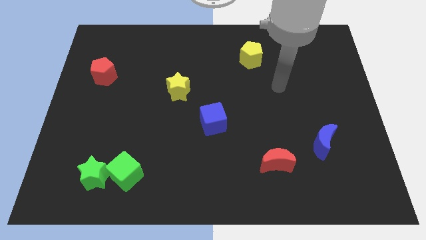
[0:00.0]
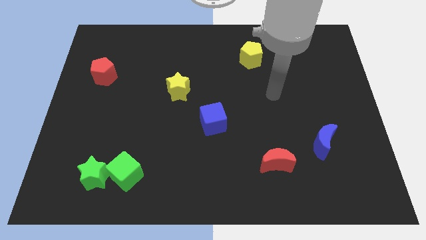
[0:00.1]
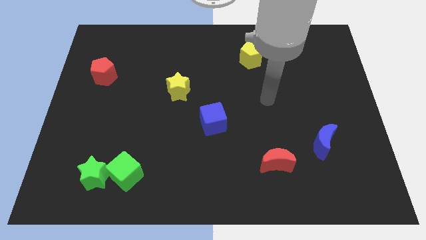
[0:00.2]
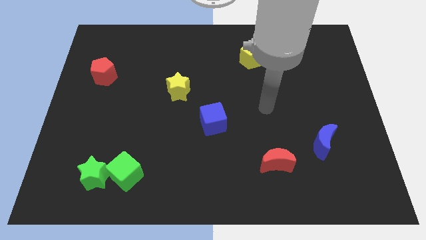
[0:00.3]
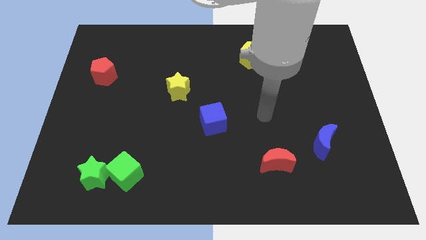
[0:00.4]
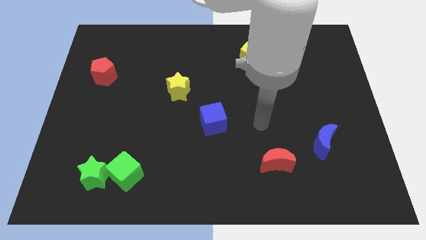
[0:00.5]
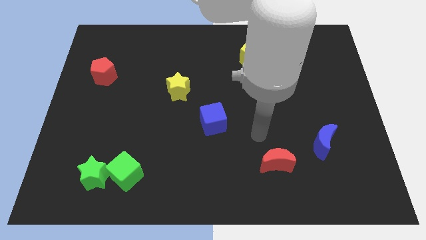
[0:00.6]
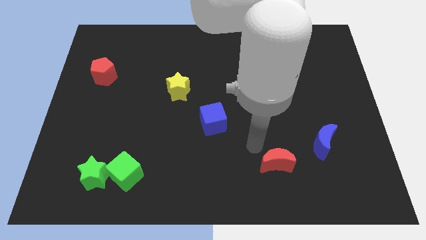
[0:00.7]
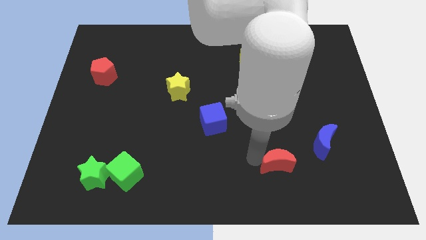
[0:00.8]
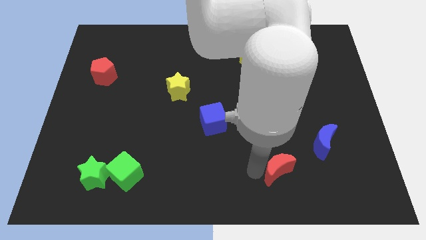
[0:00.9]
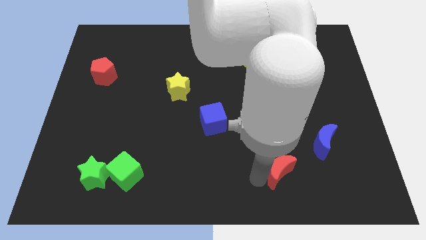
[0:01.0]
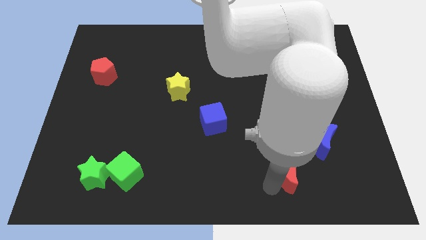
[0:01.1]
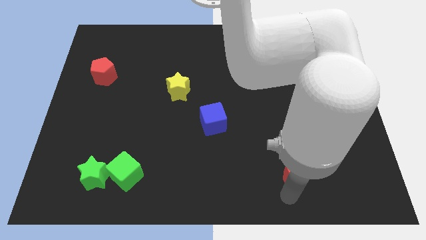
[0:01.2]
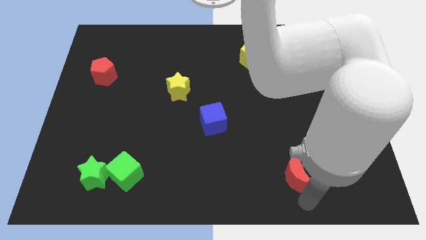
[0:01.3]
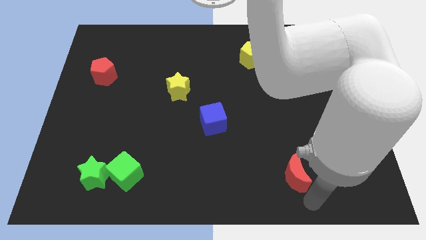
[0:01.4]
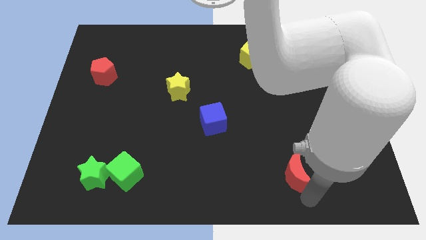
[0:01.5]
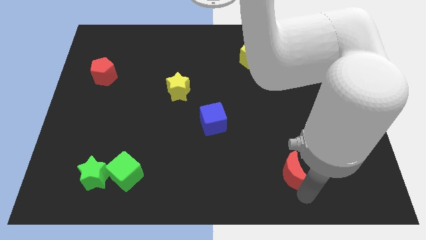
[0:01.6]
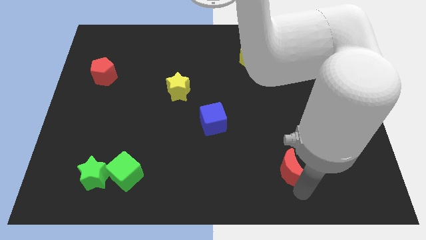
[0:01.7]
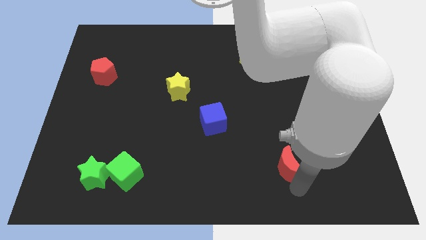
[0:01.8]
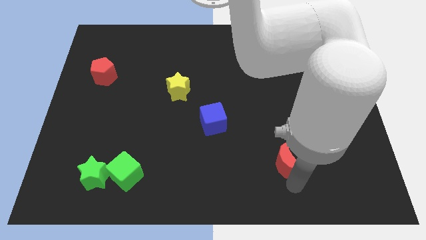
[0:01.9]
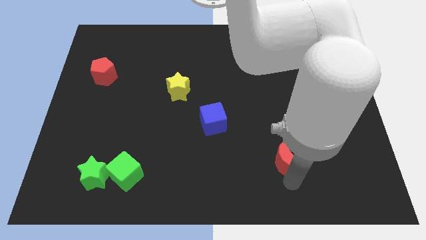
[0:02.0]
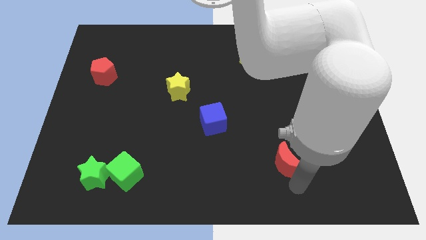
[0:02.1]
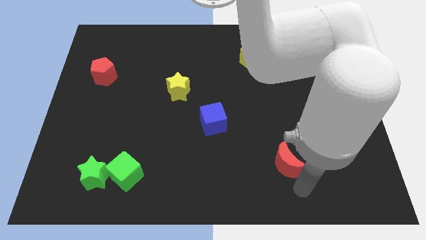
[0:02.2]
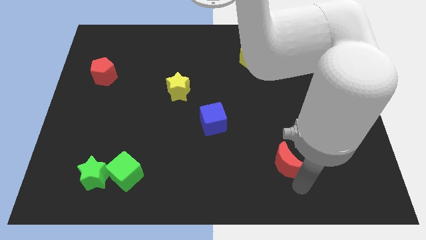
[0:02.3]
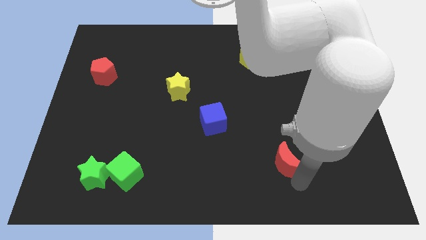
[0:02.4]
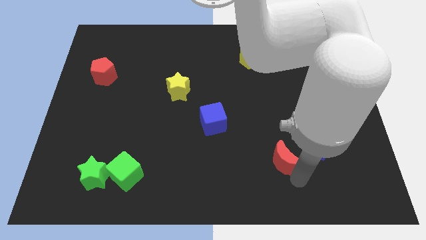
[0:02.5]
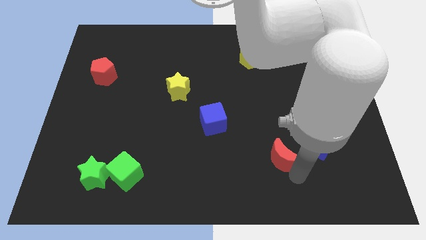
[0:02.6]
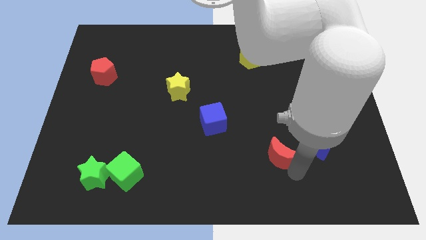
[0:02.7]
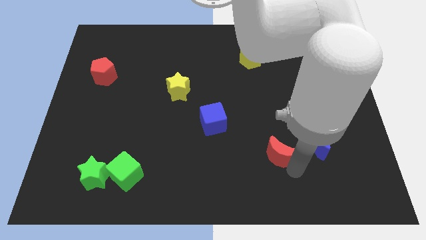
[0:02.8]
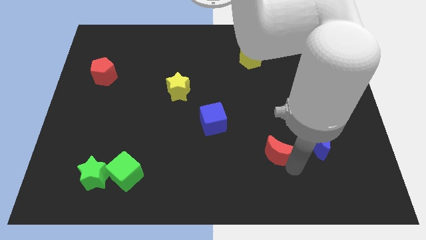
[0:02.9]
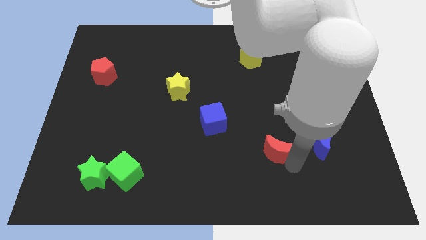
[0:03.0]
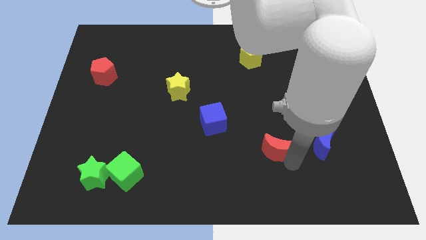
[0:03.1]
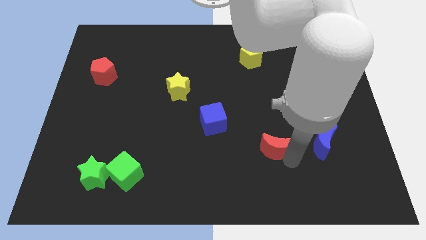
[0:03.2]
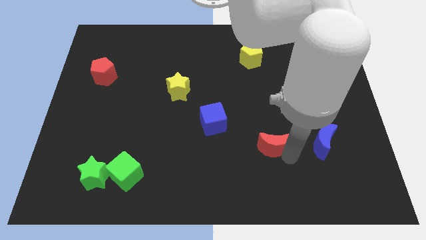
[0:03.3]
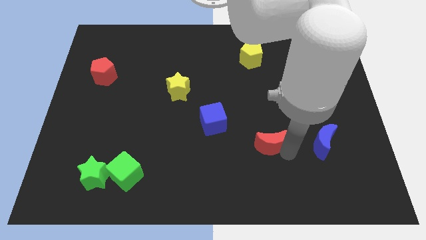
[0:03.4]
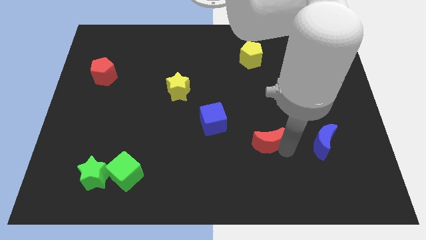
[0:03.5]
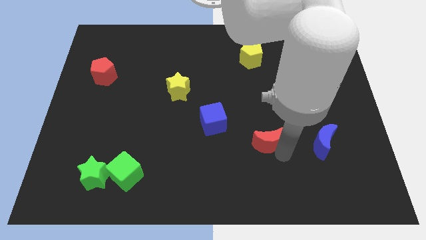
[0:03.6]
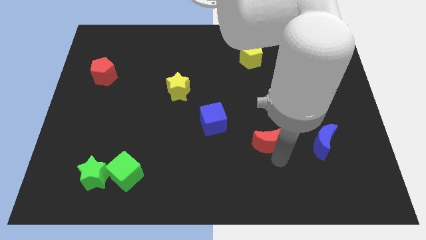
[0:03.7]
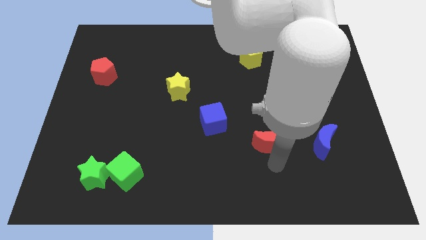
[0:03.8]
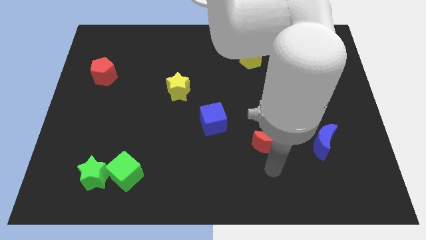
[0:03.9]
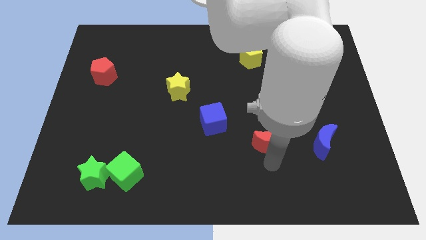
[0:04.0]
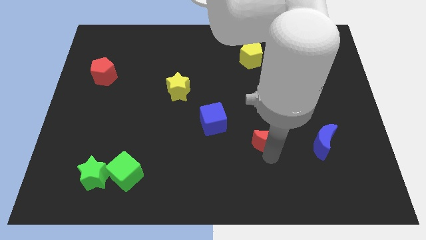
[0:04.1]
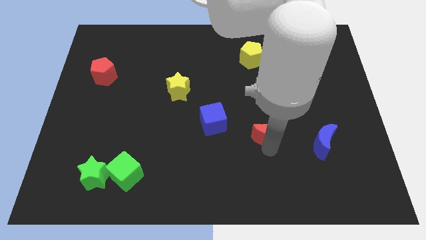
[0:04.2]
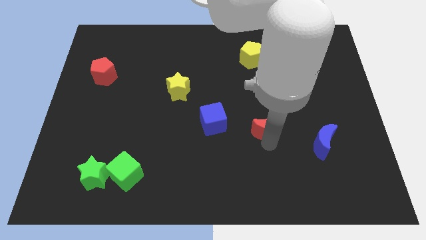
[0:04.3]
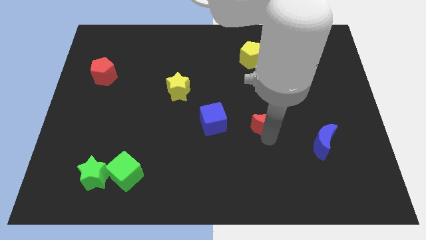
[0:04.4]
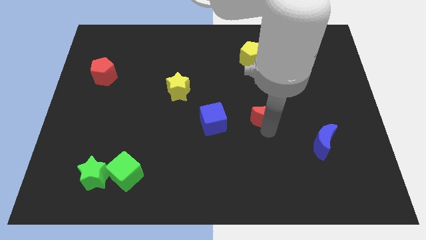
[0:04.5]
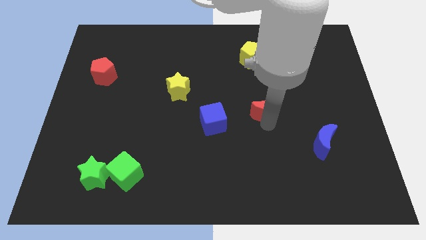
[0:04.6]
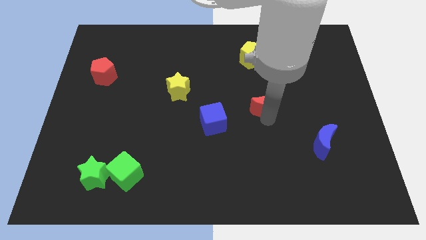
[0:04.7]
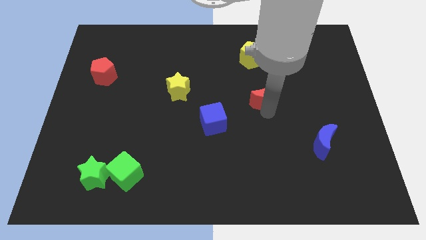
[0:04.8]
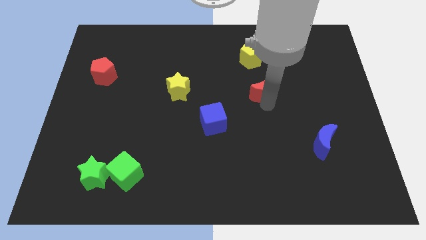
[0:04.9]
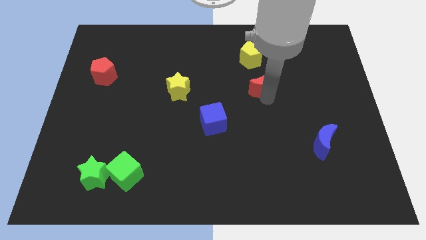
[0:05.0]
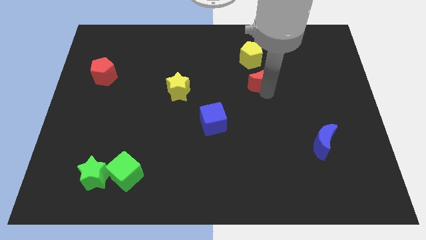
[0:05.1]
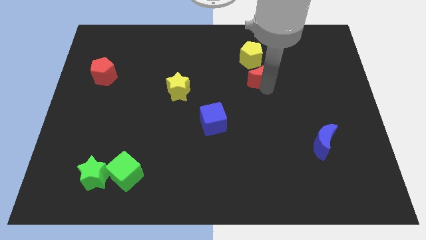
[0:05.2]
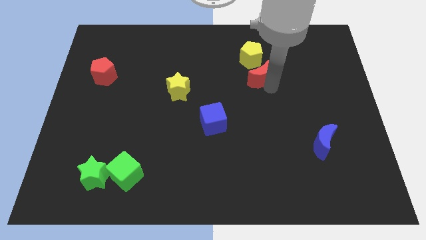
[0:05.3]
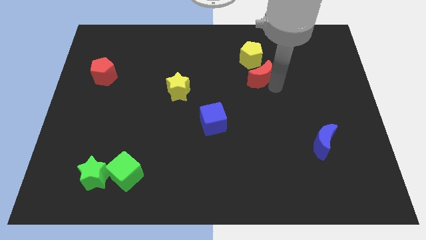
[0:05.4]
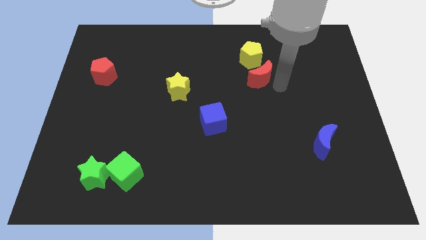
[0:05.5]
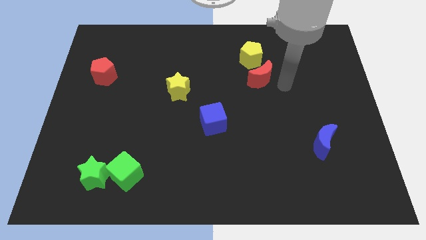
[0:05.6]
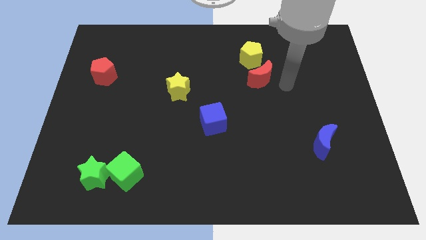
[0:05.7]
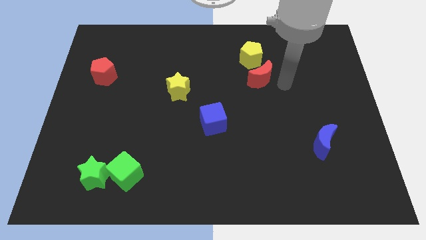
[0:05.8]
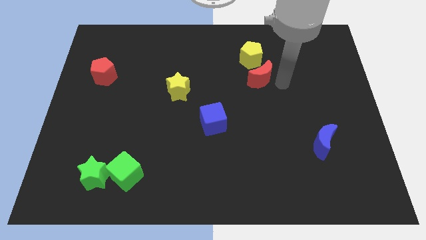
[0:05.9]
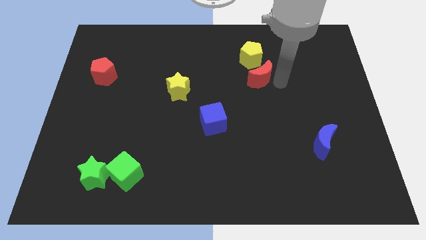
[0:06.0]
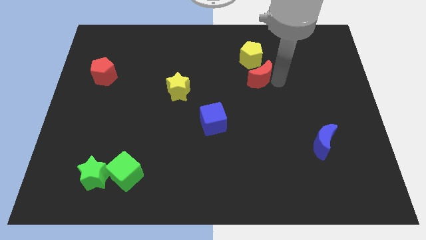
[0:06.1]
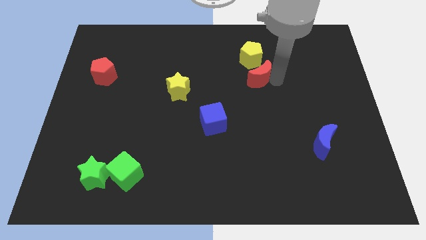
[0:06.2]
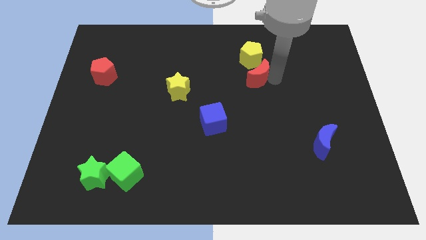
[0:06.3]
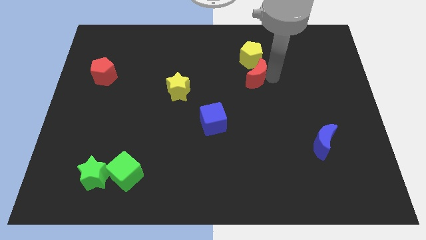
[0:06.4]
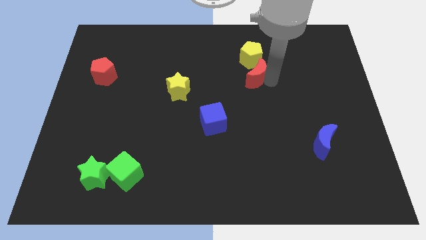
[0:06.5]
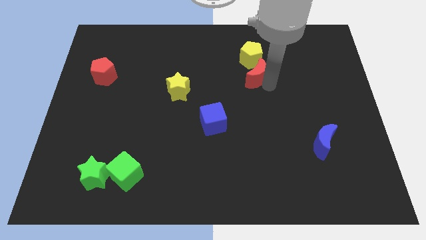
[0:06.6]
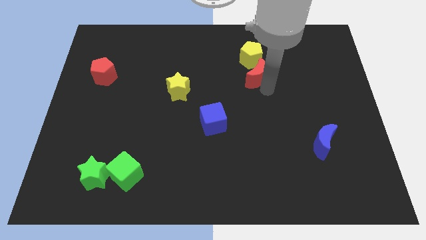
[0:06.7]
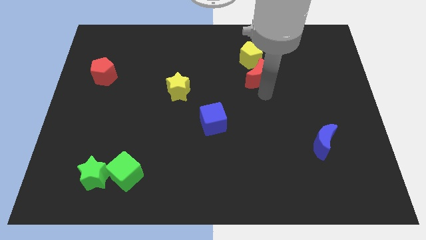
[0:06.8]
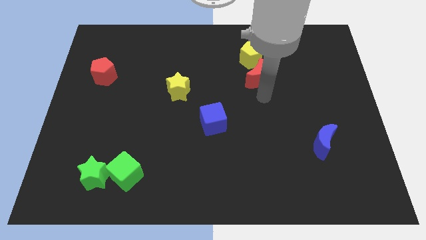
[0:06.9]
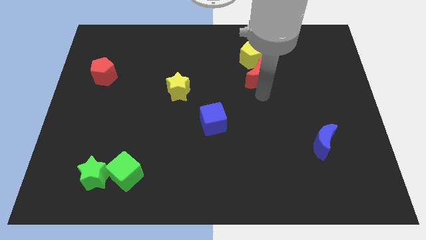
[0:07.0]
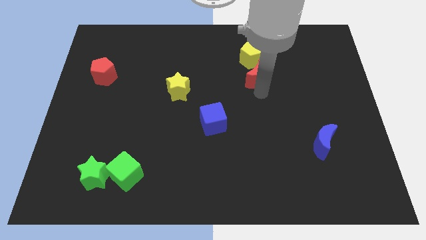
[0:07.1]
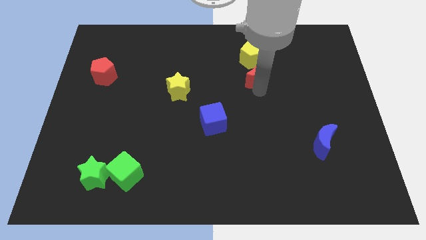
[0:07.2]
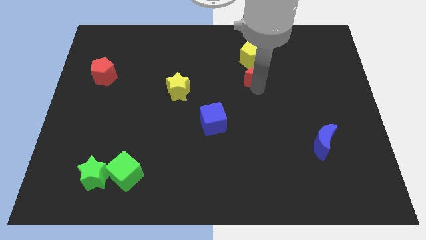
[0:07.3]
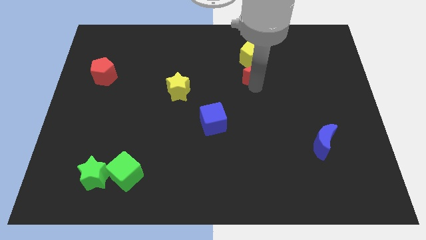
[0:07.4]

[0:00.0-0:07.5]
move the red moon close to the yellow pentagon
